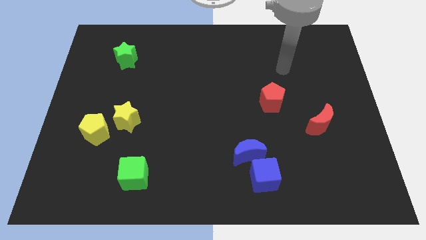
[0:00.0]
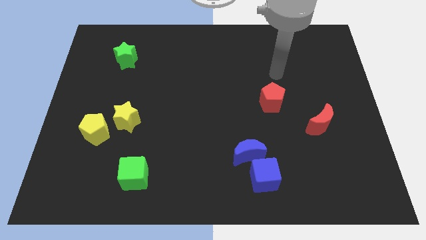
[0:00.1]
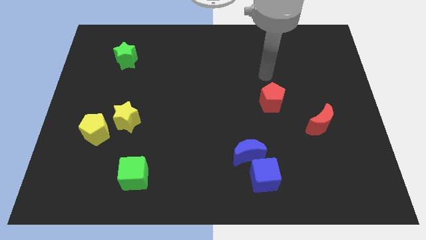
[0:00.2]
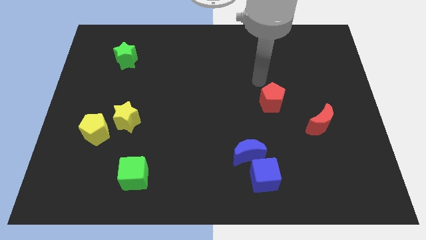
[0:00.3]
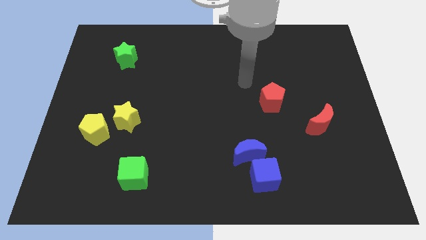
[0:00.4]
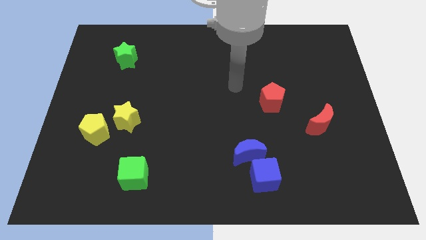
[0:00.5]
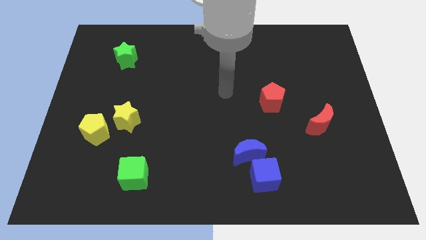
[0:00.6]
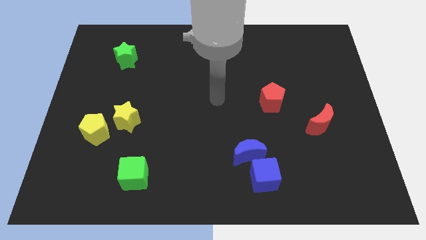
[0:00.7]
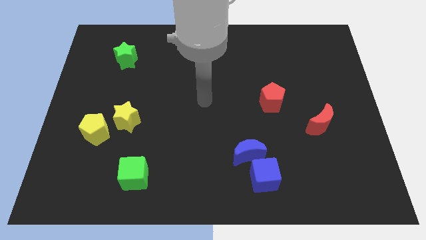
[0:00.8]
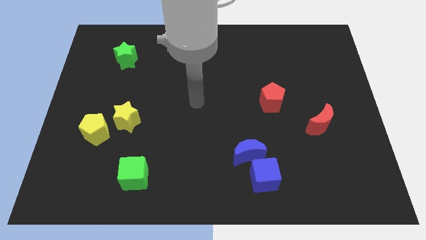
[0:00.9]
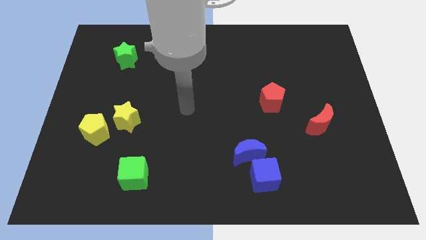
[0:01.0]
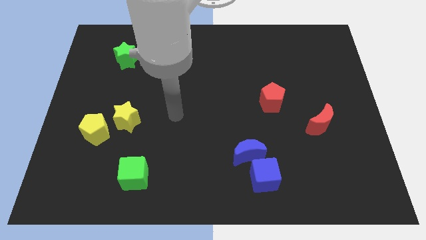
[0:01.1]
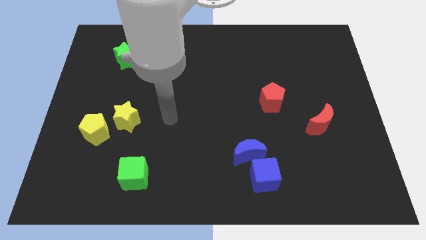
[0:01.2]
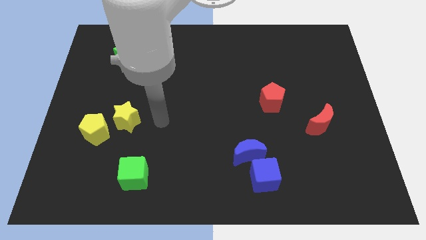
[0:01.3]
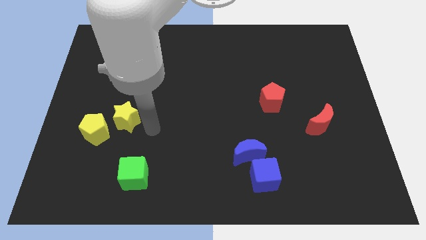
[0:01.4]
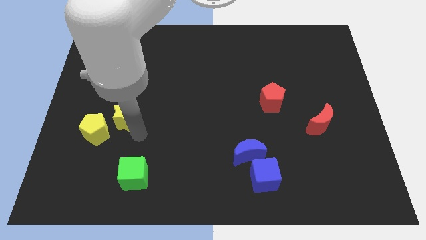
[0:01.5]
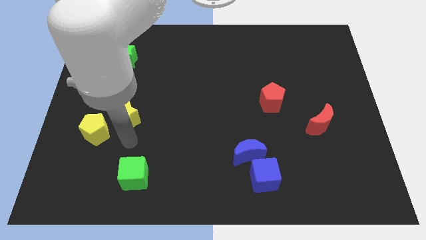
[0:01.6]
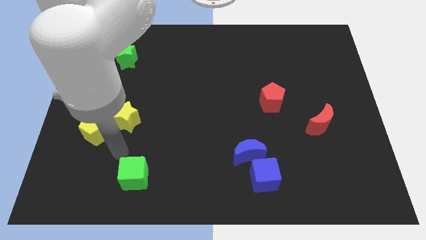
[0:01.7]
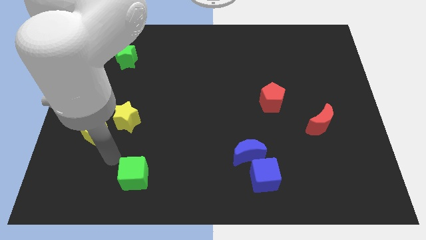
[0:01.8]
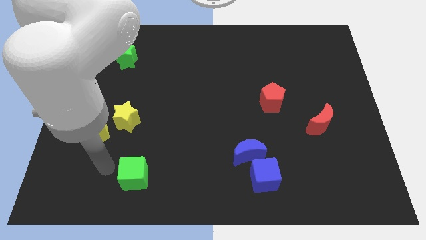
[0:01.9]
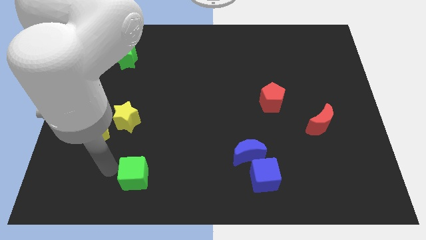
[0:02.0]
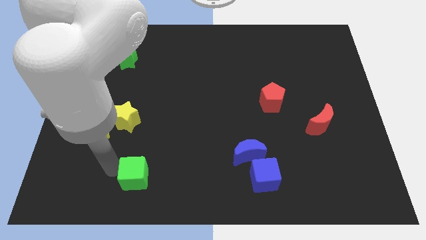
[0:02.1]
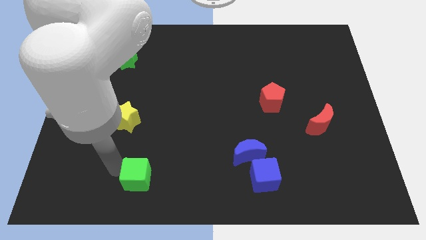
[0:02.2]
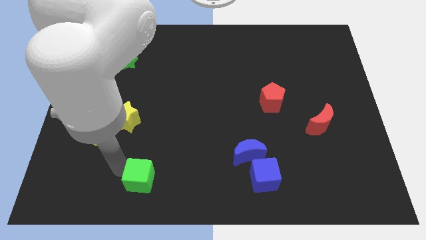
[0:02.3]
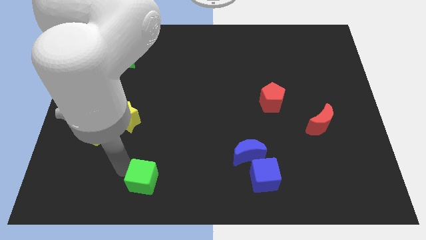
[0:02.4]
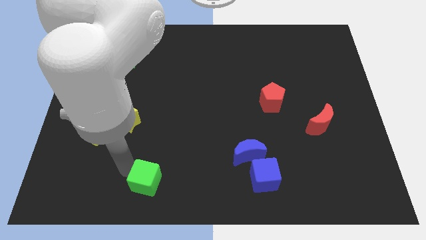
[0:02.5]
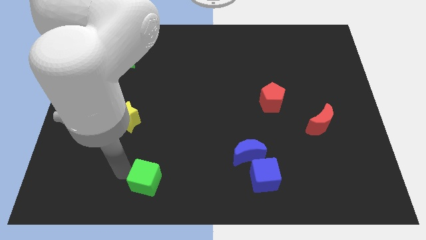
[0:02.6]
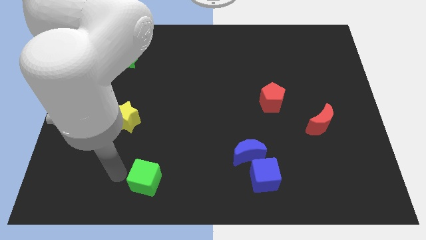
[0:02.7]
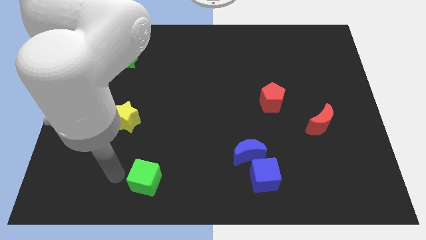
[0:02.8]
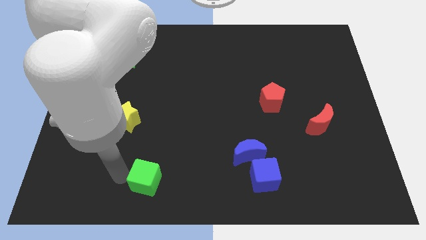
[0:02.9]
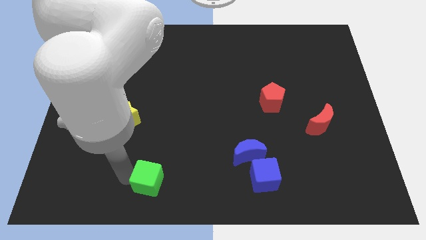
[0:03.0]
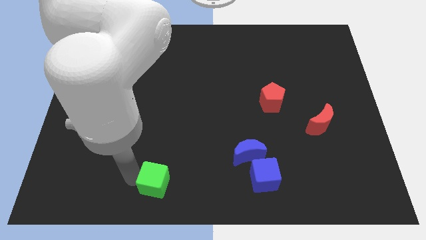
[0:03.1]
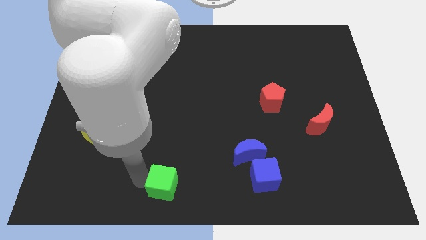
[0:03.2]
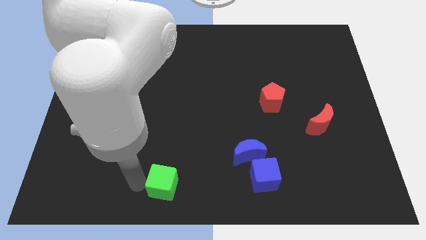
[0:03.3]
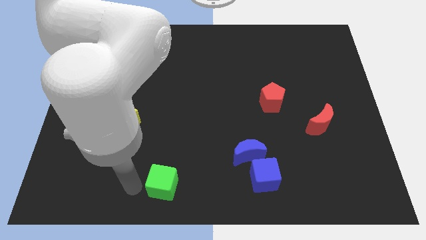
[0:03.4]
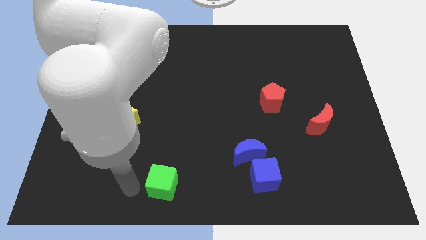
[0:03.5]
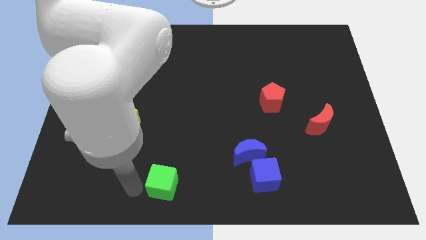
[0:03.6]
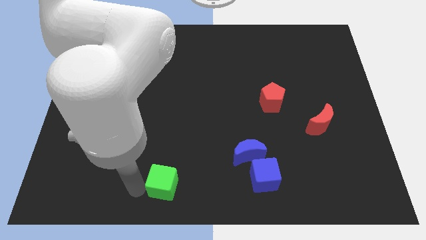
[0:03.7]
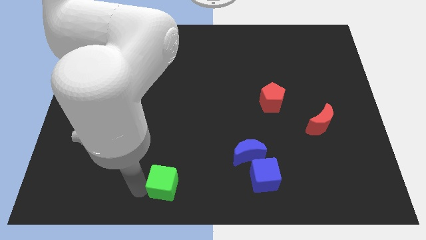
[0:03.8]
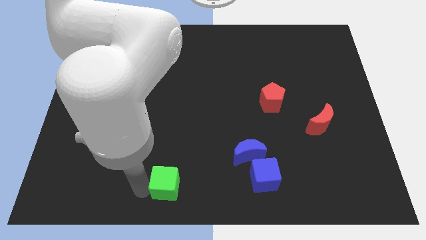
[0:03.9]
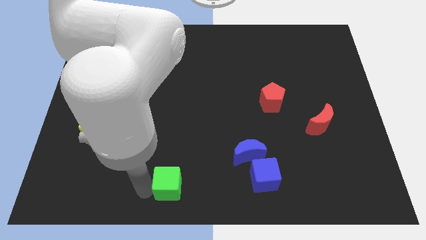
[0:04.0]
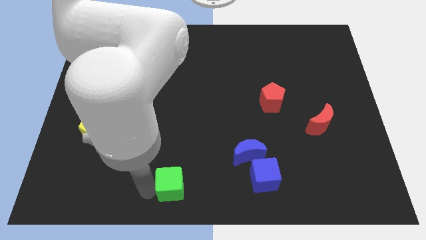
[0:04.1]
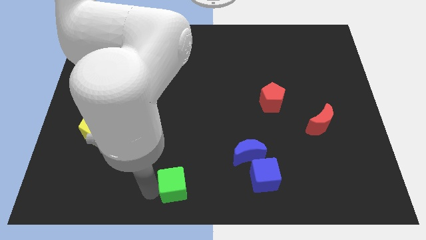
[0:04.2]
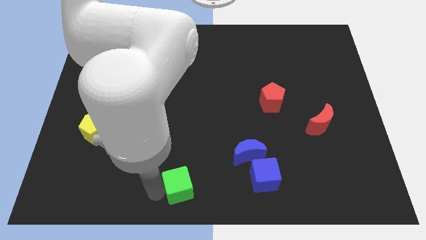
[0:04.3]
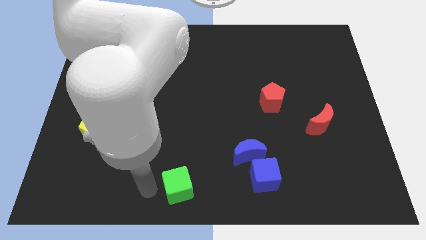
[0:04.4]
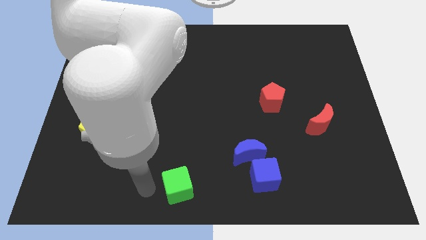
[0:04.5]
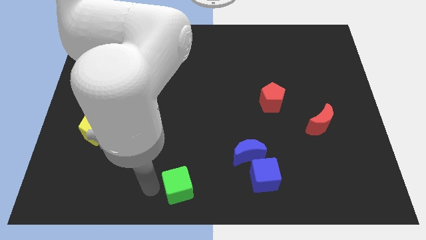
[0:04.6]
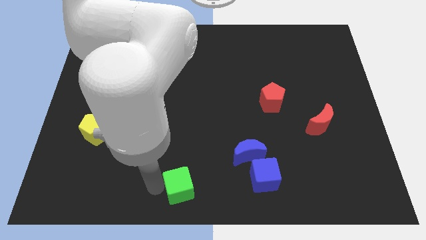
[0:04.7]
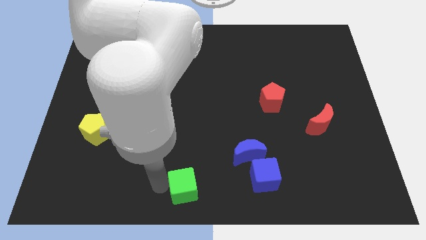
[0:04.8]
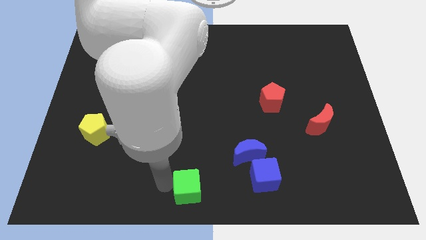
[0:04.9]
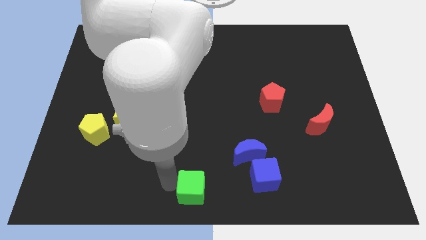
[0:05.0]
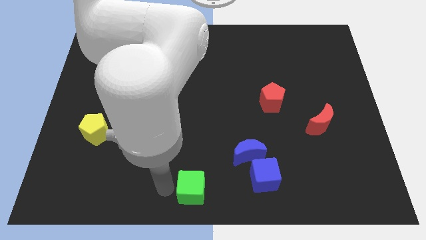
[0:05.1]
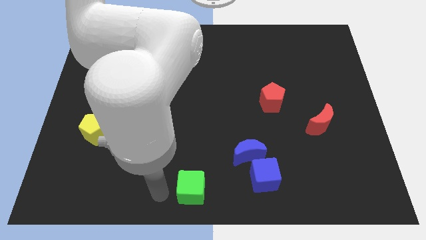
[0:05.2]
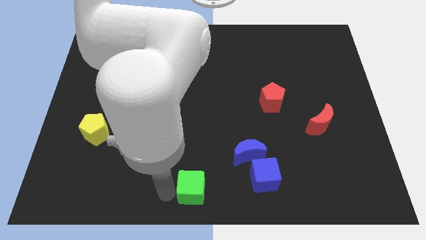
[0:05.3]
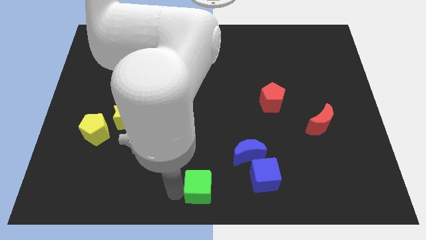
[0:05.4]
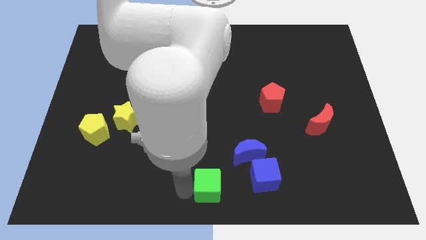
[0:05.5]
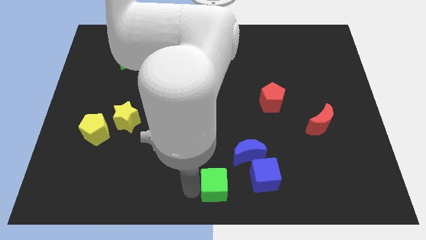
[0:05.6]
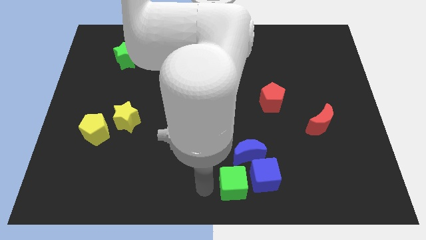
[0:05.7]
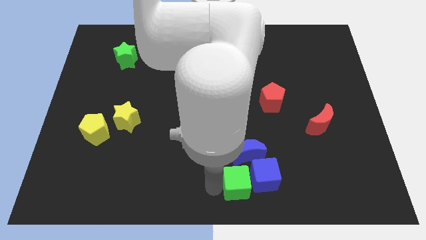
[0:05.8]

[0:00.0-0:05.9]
put the green cube to the blue cube

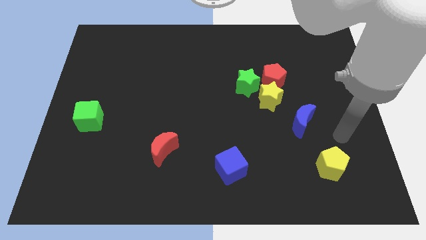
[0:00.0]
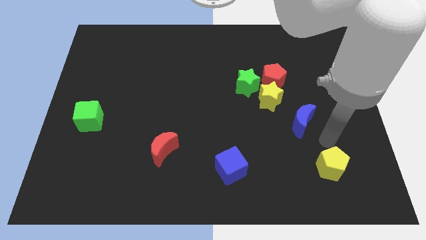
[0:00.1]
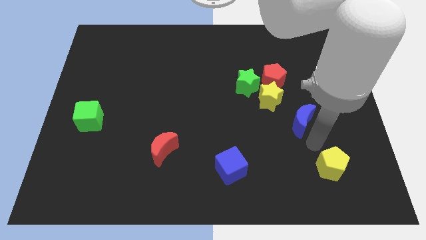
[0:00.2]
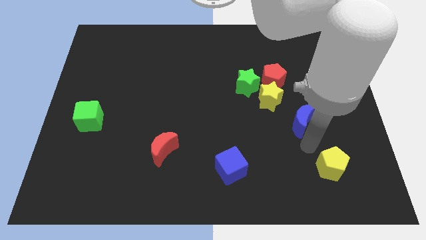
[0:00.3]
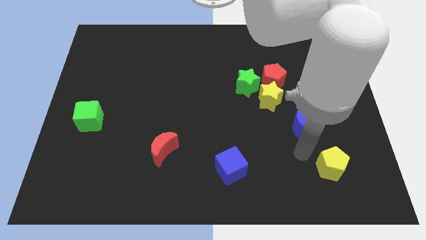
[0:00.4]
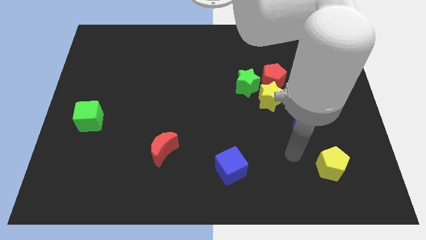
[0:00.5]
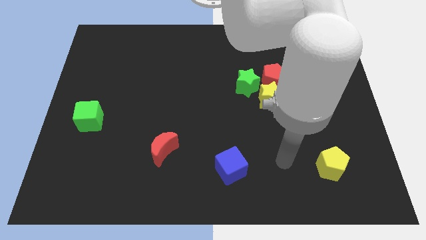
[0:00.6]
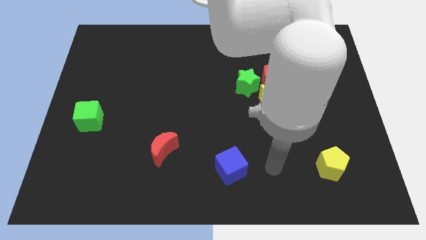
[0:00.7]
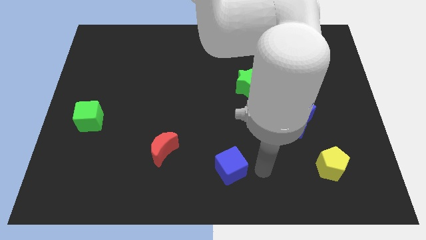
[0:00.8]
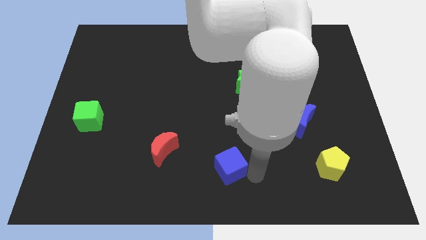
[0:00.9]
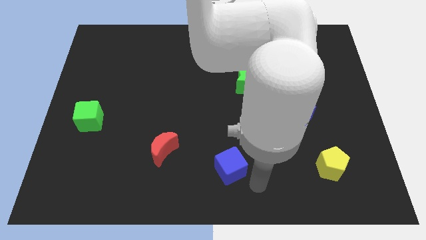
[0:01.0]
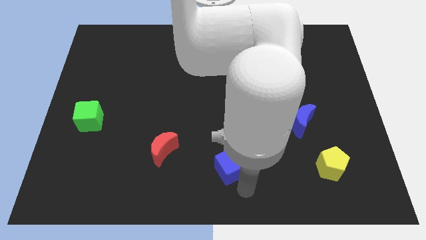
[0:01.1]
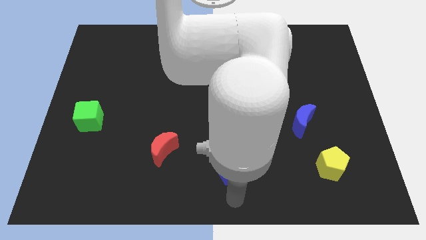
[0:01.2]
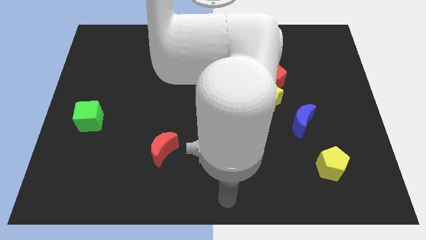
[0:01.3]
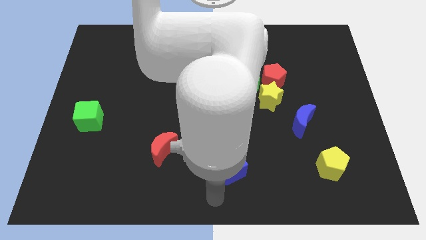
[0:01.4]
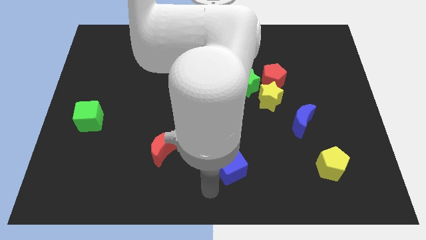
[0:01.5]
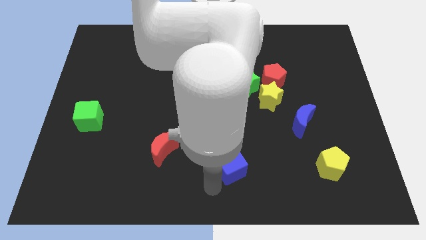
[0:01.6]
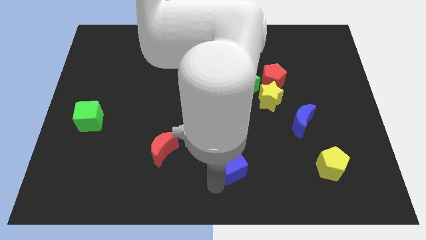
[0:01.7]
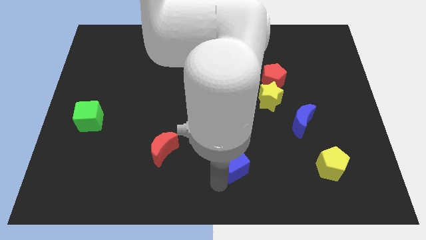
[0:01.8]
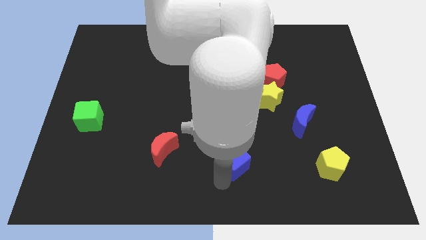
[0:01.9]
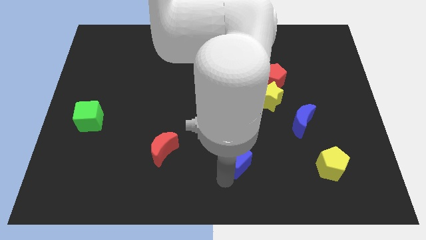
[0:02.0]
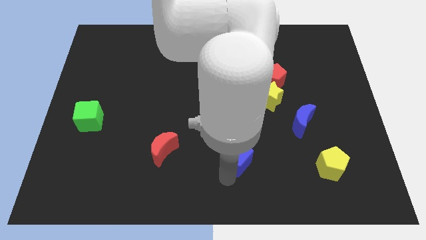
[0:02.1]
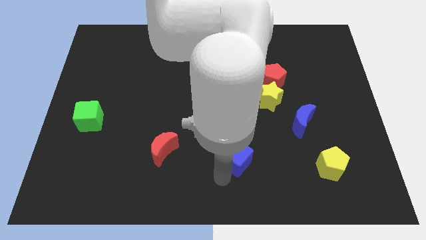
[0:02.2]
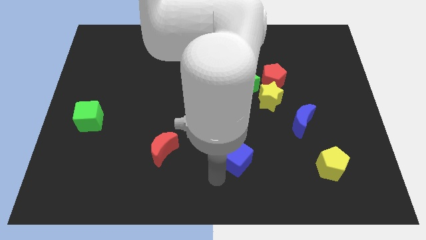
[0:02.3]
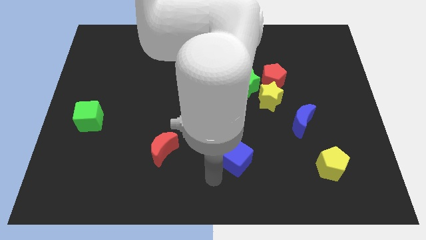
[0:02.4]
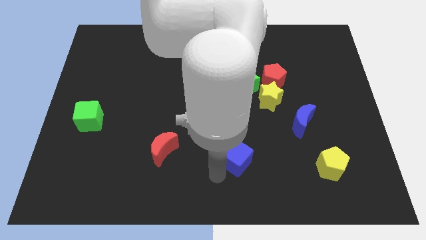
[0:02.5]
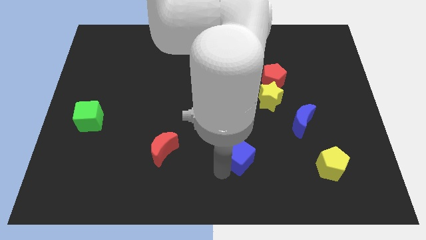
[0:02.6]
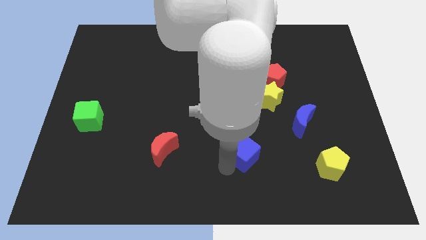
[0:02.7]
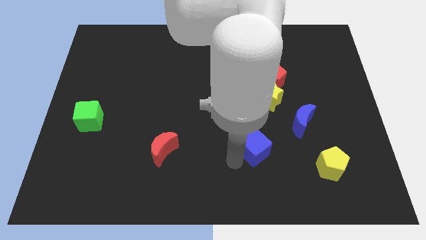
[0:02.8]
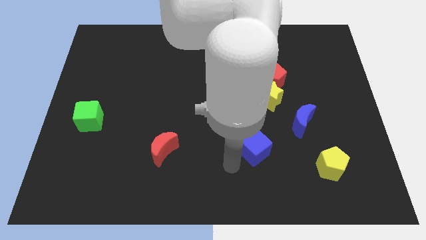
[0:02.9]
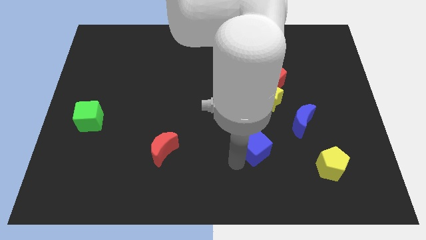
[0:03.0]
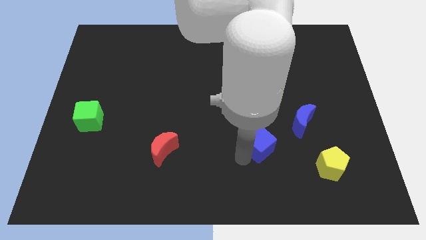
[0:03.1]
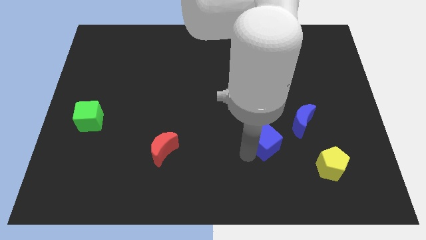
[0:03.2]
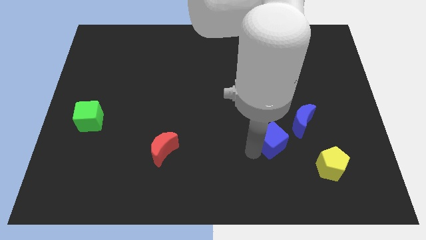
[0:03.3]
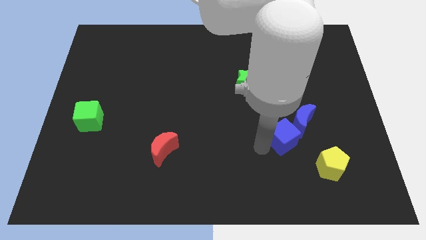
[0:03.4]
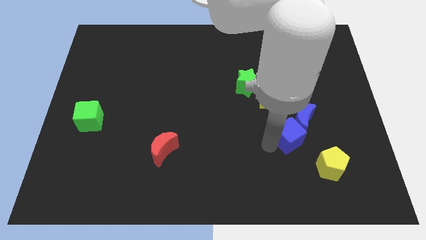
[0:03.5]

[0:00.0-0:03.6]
slide the blue cube close to the blue moon
